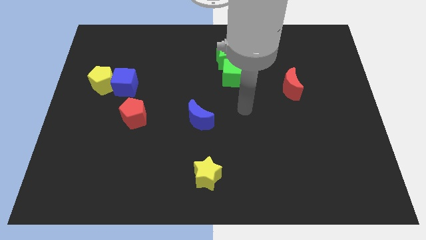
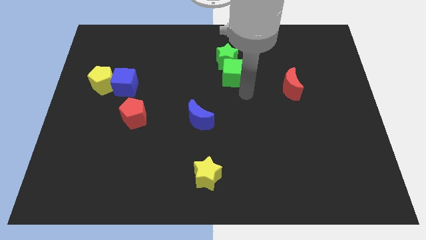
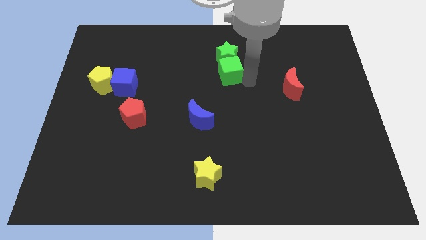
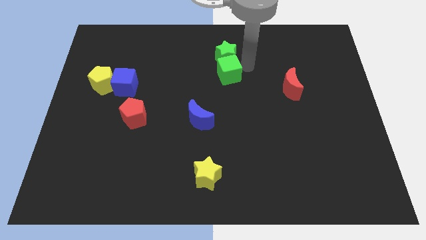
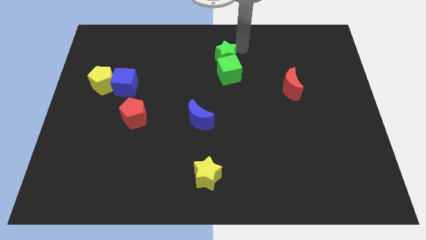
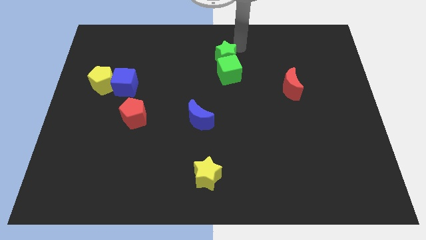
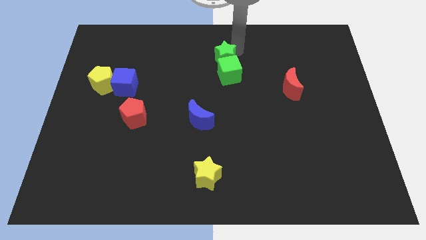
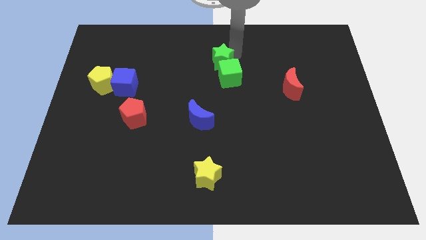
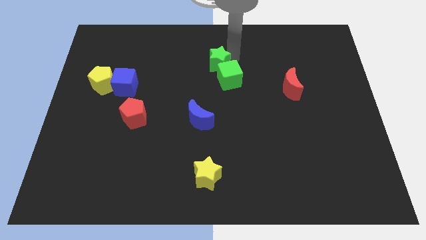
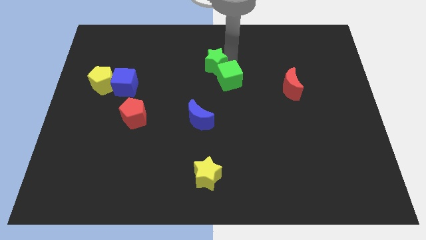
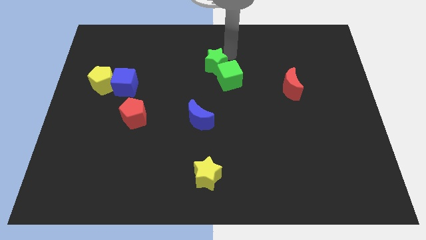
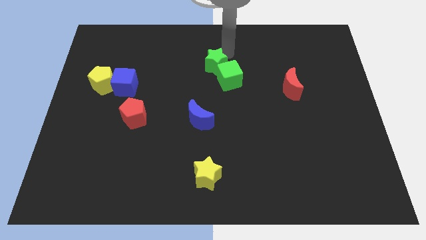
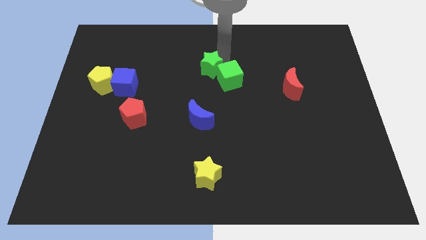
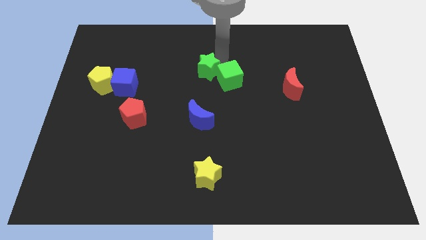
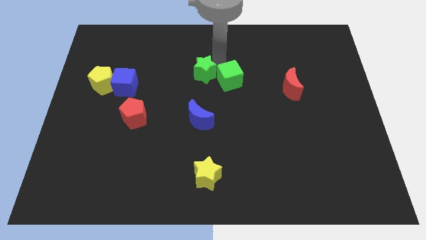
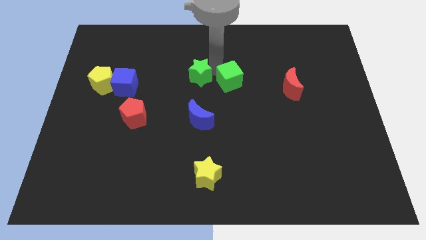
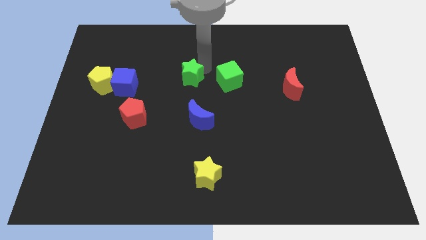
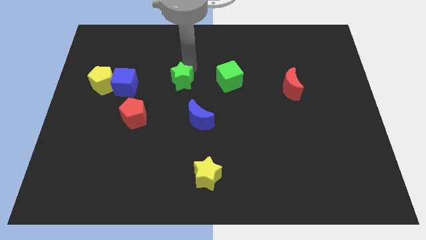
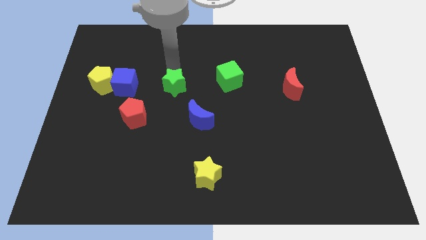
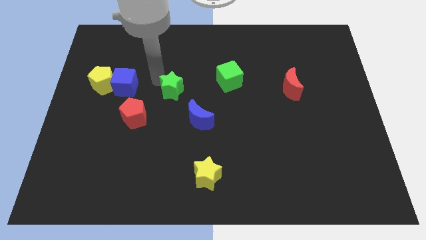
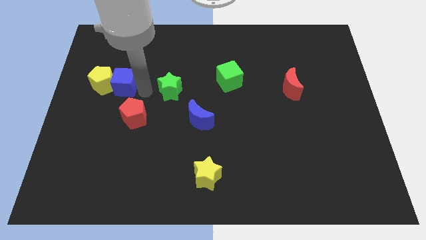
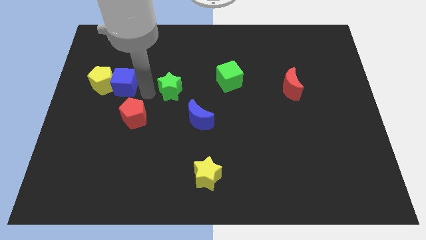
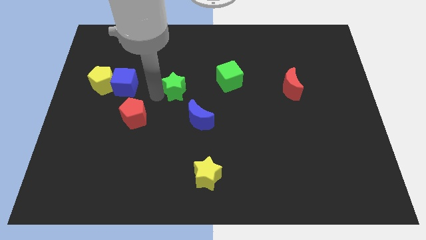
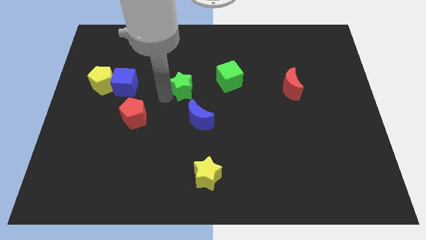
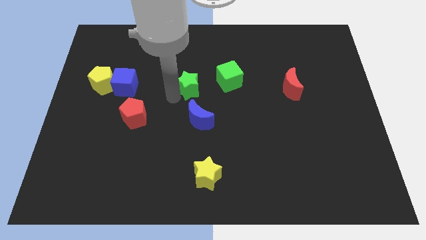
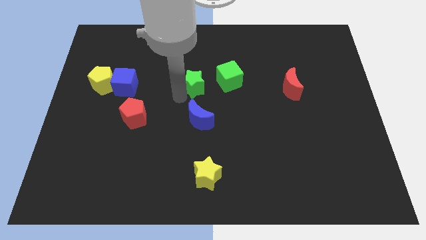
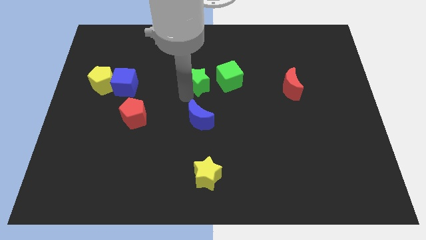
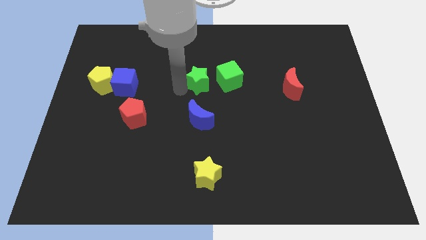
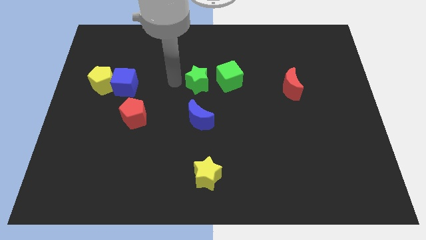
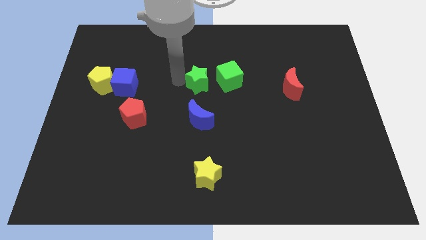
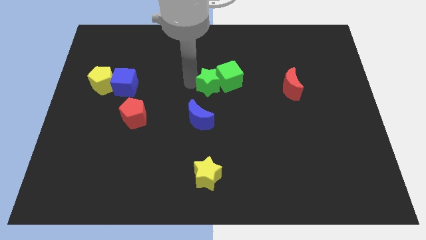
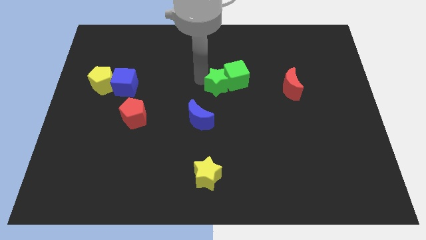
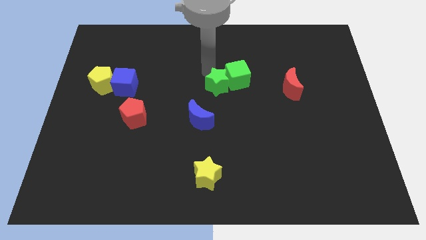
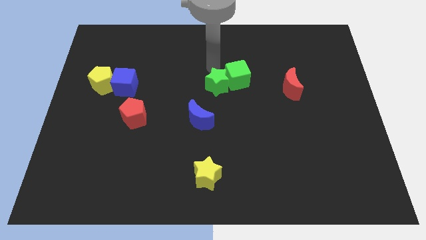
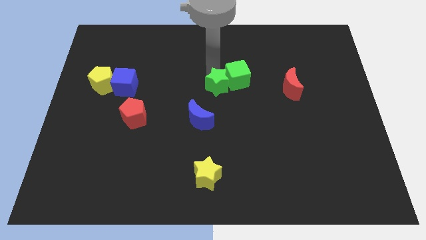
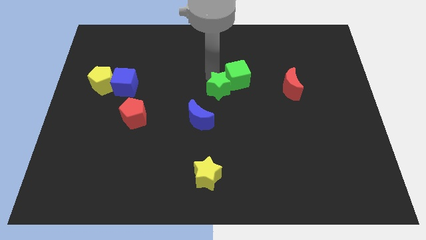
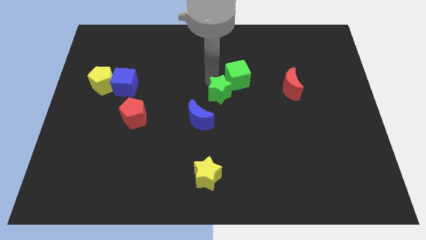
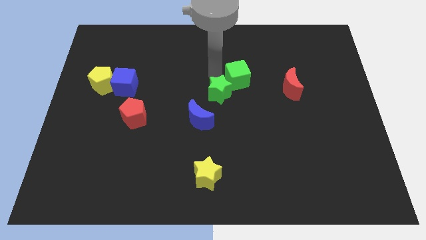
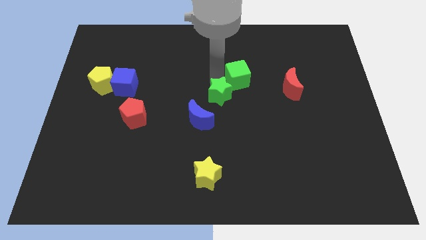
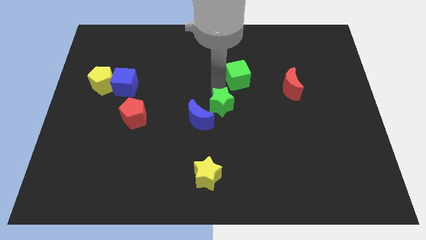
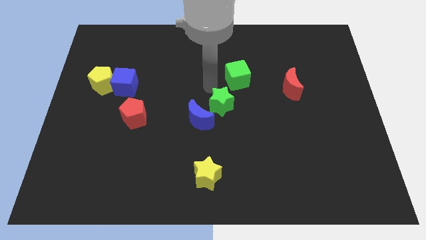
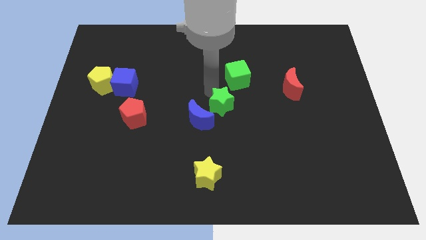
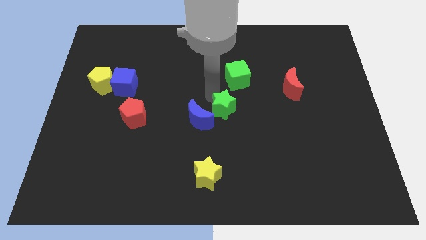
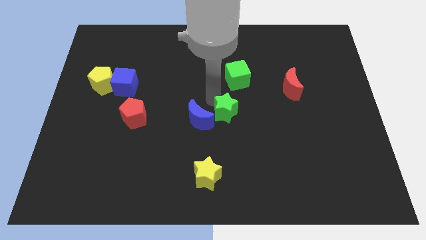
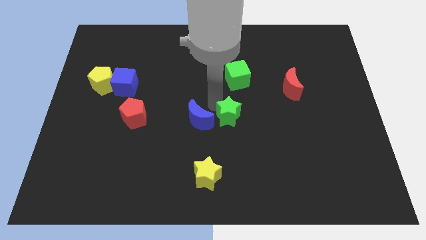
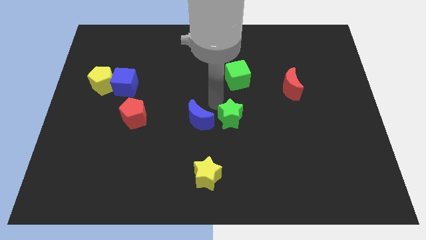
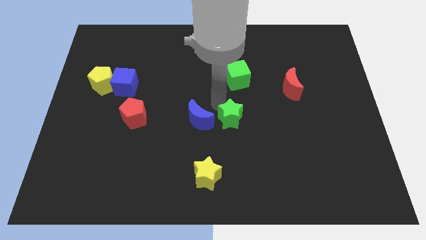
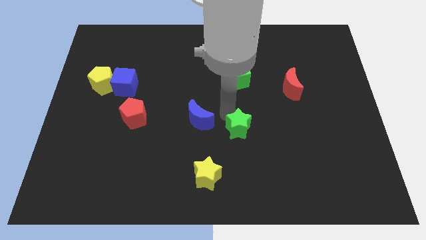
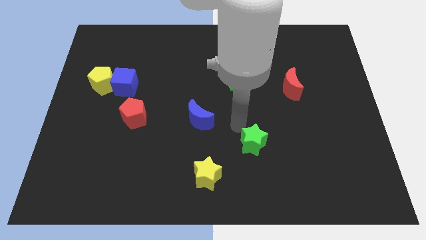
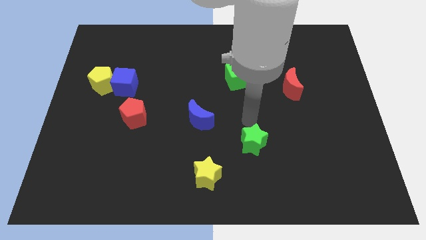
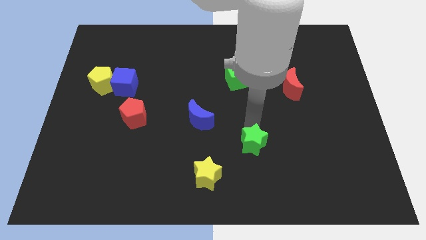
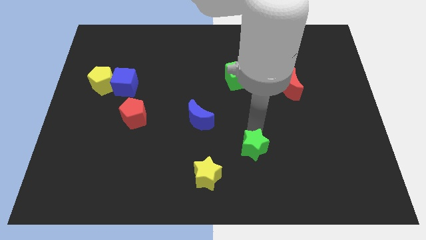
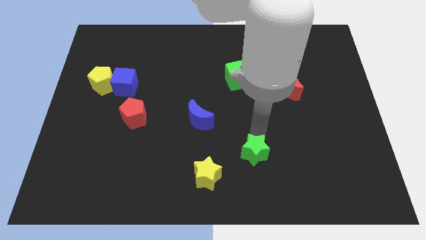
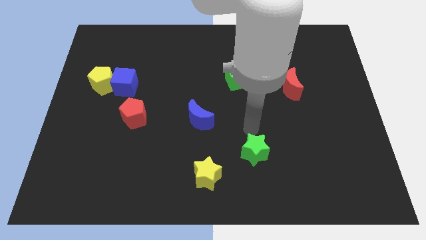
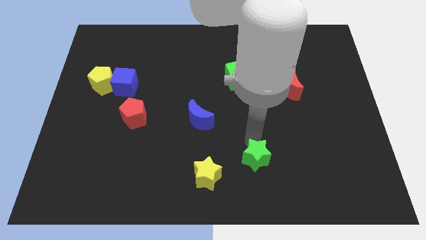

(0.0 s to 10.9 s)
put the green star just right of the yellow star

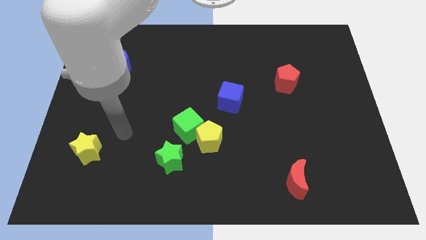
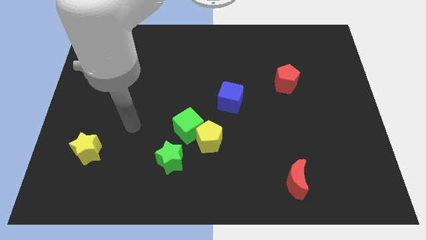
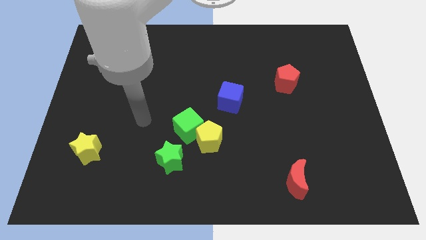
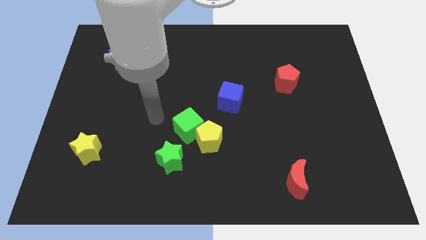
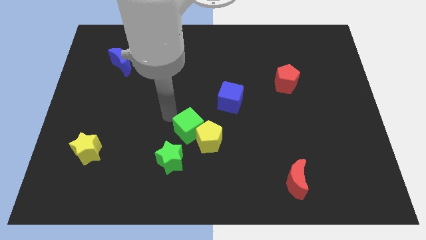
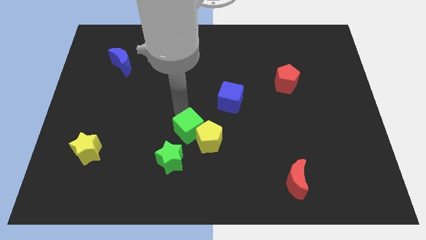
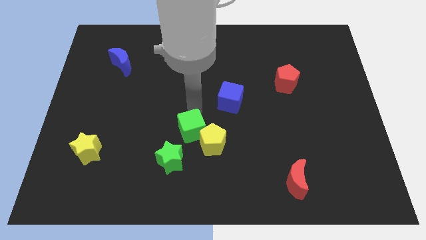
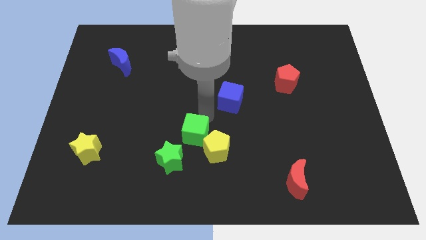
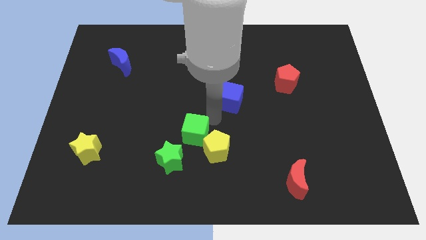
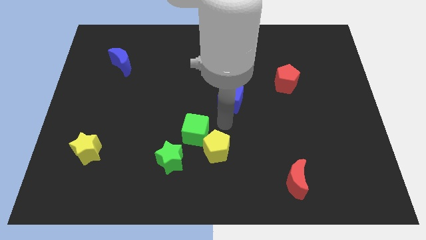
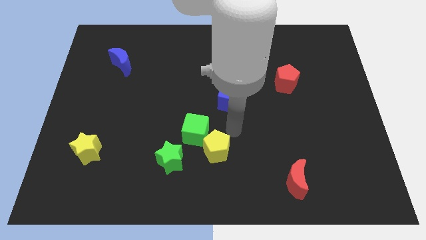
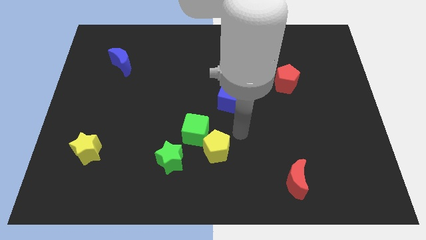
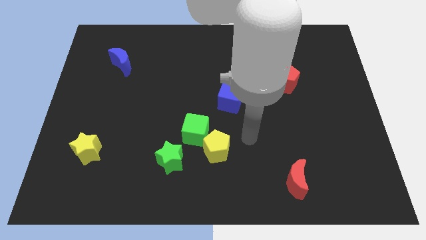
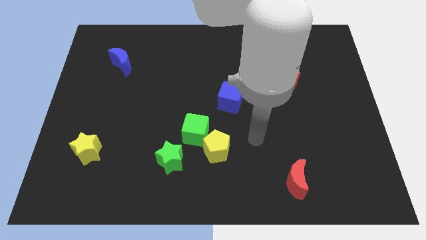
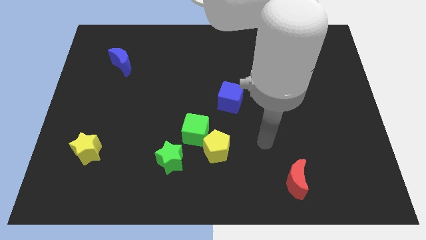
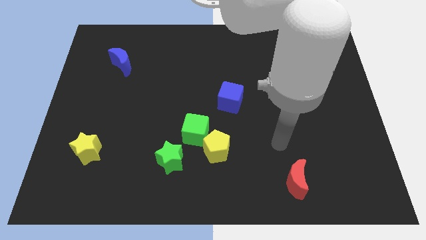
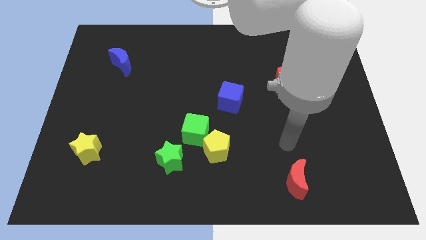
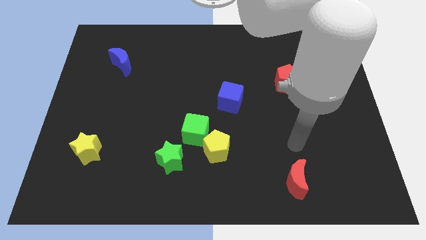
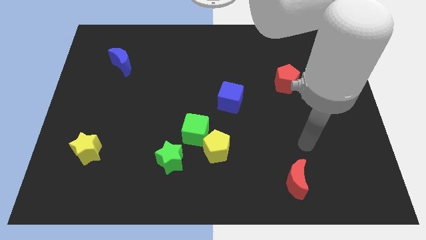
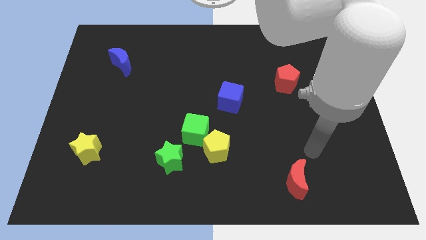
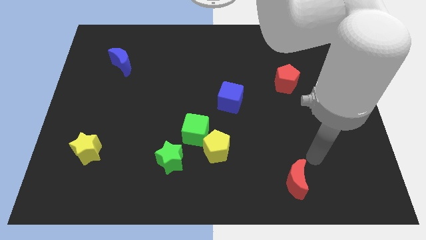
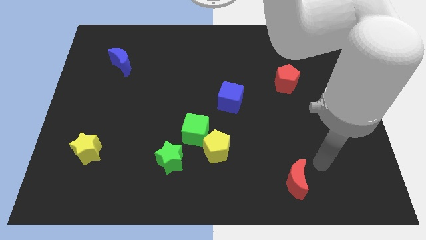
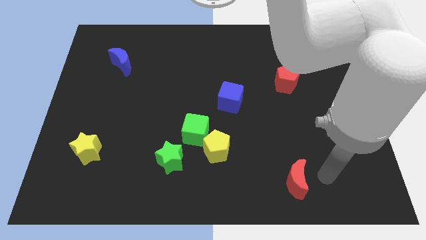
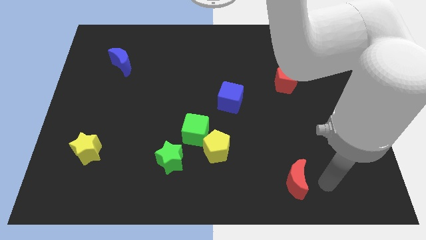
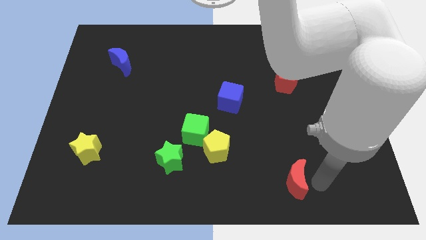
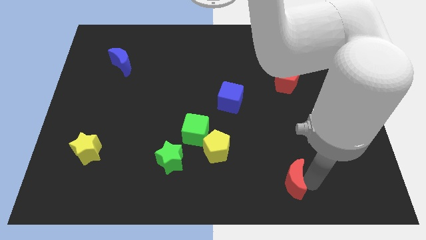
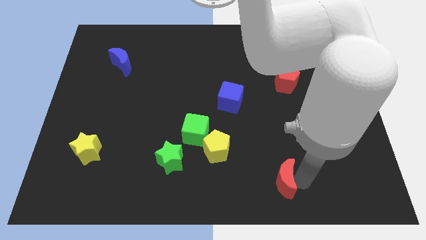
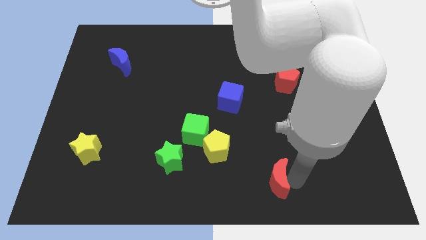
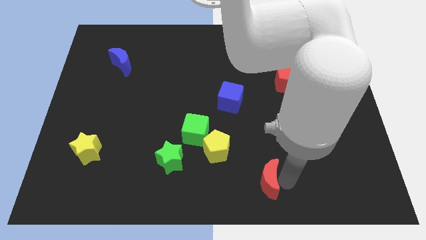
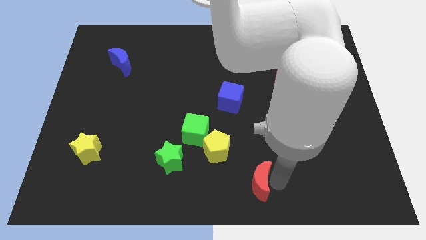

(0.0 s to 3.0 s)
put the red moon diagonally down and to the right of the yellow pentagon
